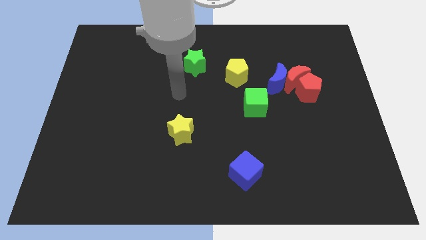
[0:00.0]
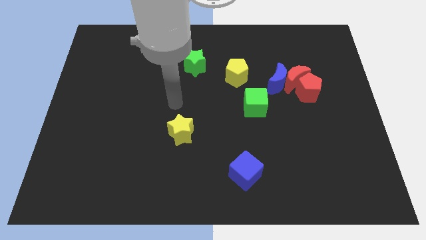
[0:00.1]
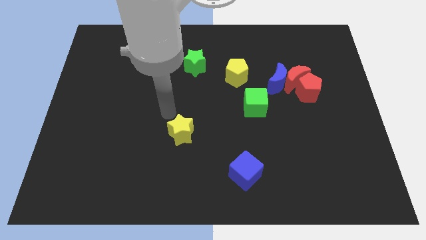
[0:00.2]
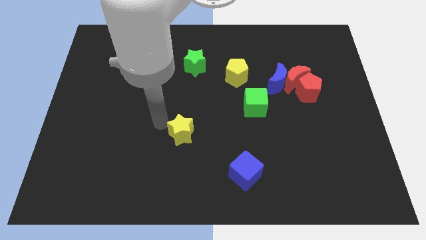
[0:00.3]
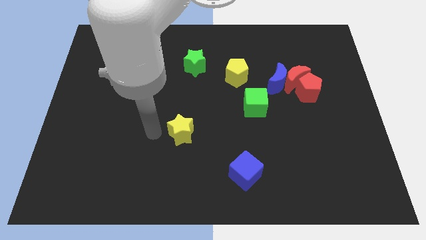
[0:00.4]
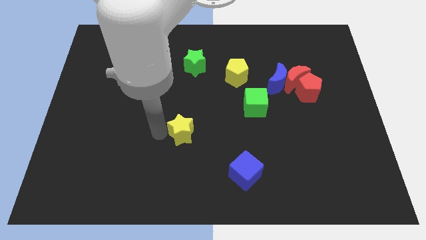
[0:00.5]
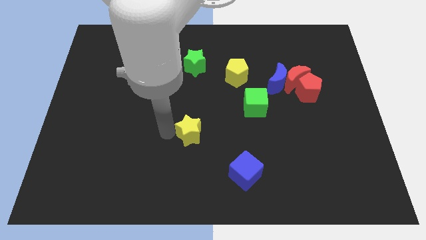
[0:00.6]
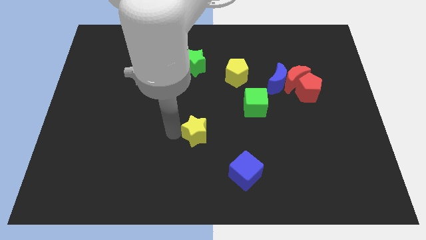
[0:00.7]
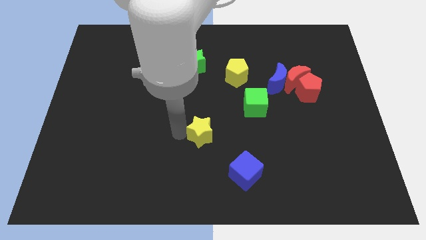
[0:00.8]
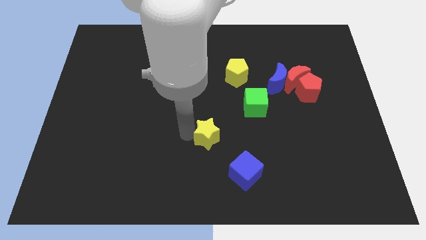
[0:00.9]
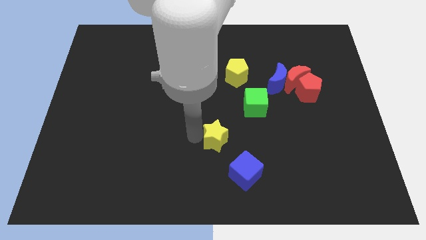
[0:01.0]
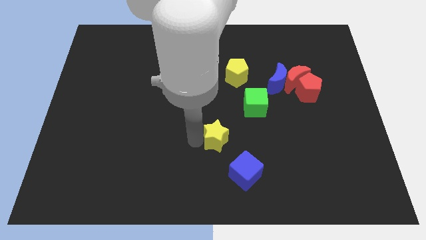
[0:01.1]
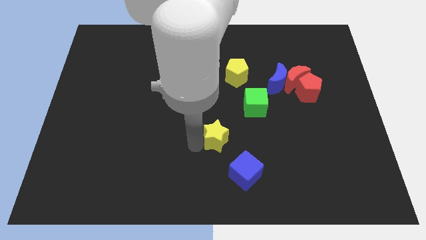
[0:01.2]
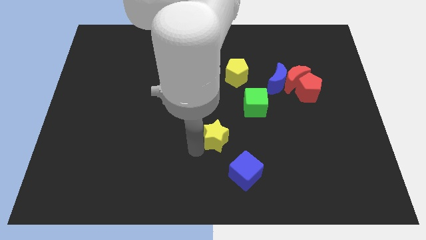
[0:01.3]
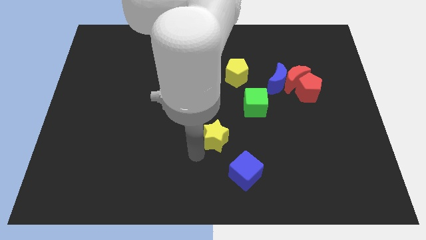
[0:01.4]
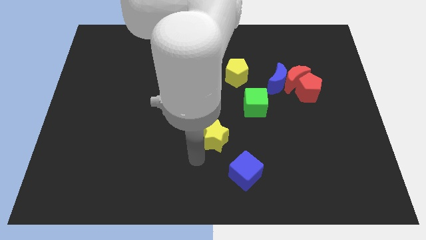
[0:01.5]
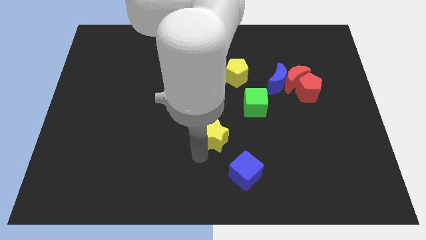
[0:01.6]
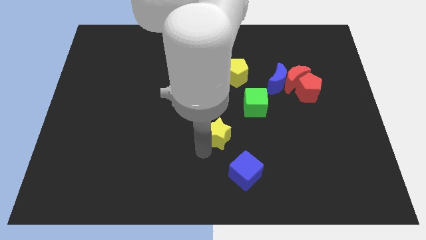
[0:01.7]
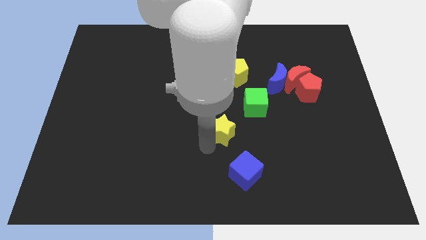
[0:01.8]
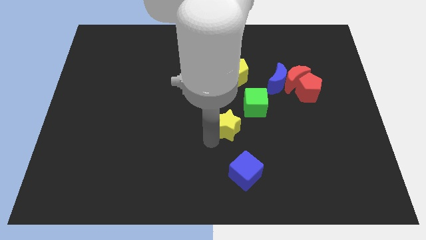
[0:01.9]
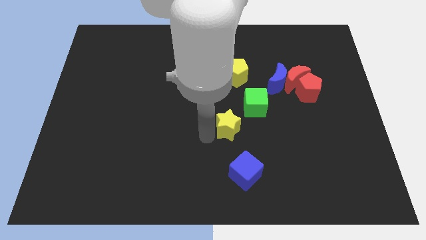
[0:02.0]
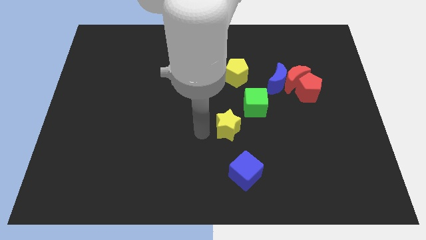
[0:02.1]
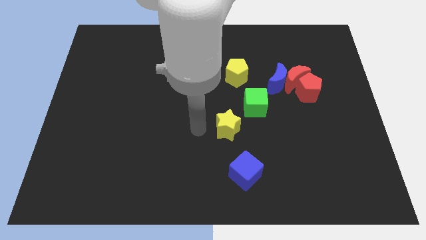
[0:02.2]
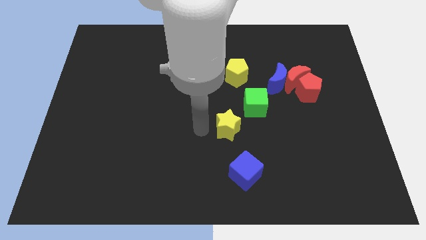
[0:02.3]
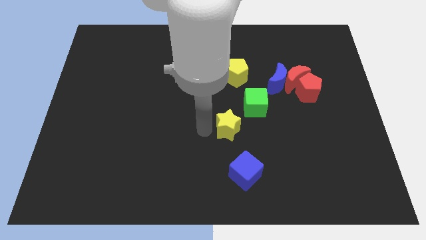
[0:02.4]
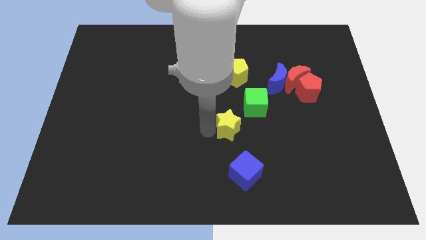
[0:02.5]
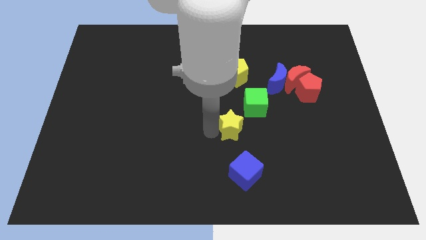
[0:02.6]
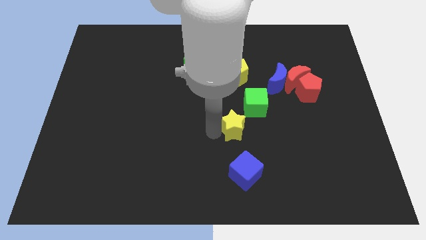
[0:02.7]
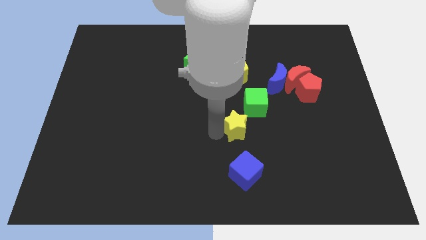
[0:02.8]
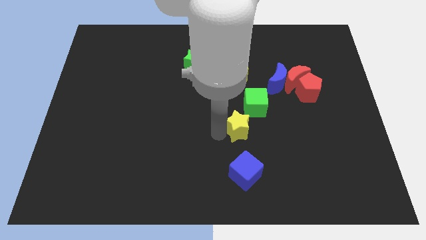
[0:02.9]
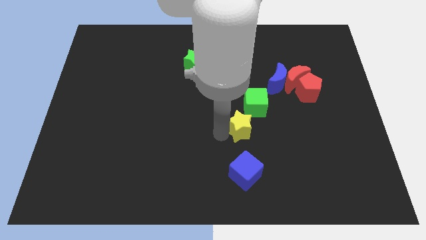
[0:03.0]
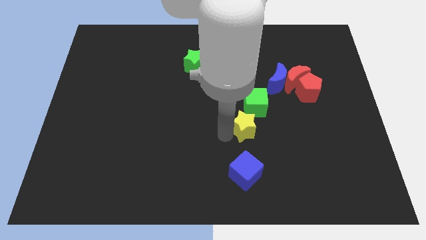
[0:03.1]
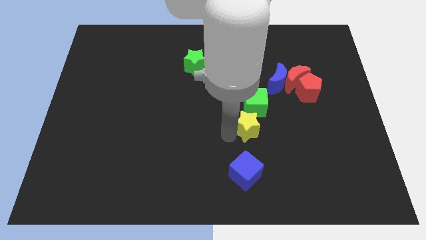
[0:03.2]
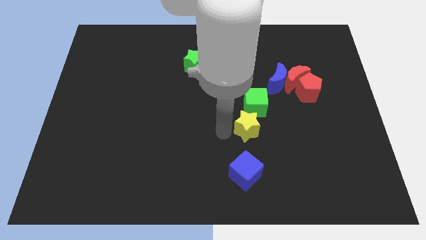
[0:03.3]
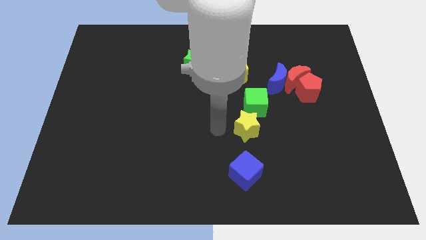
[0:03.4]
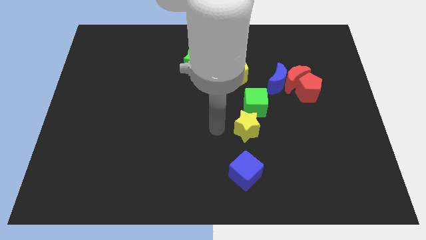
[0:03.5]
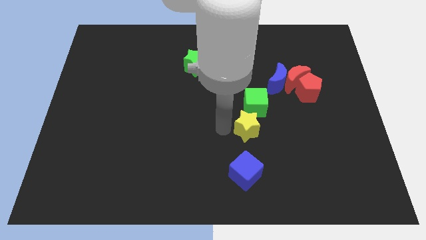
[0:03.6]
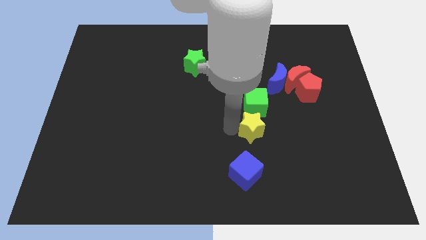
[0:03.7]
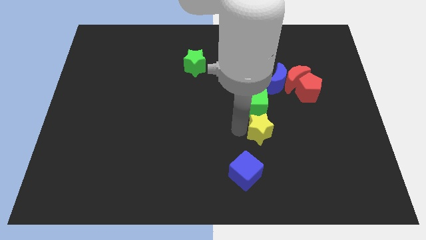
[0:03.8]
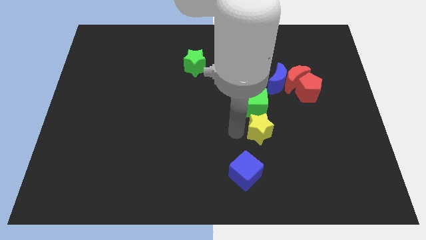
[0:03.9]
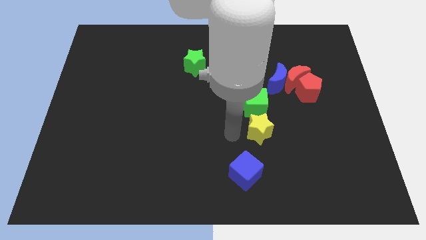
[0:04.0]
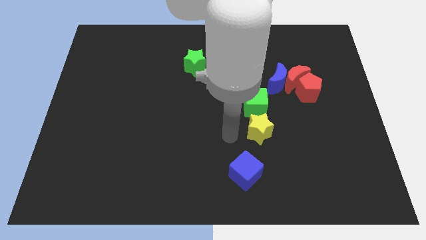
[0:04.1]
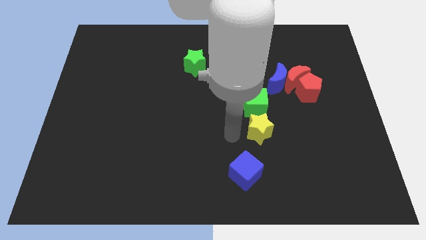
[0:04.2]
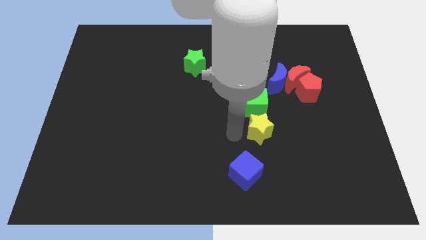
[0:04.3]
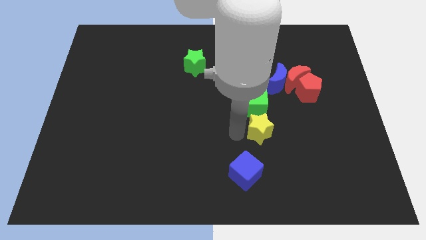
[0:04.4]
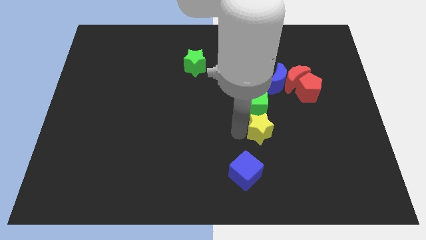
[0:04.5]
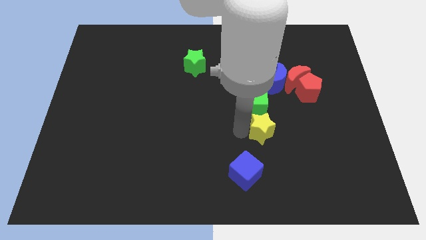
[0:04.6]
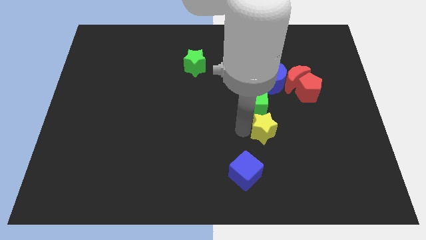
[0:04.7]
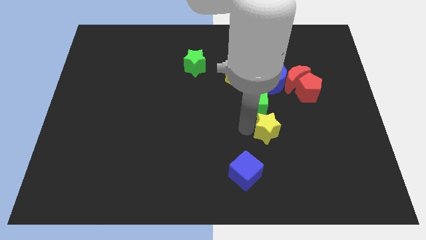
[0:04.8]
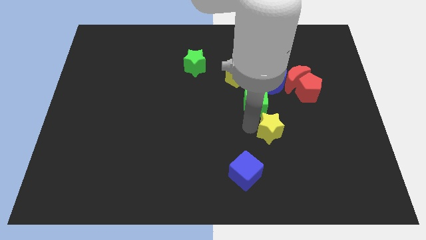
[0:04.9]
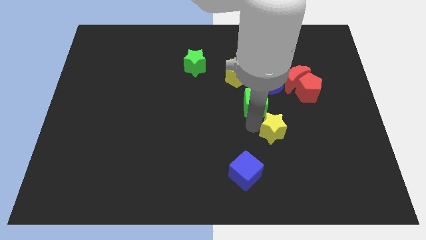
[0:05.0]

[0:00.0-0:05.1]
slide the yellow star to the right

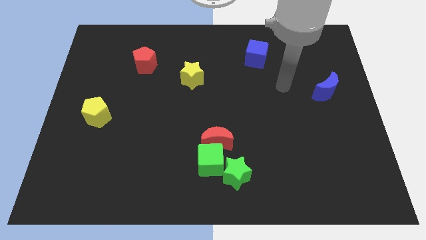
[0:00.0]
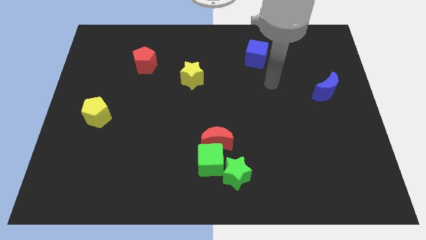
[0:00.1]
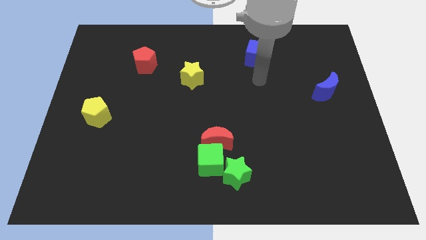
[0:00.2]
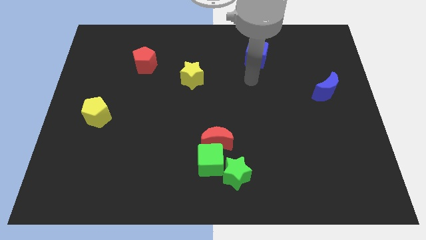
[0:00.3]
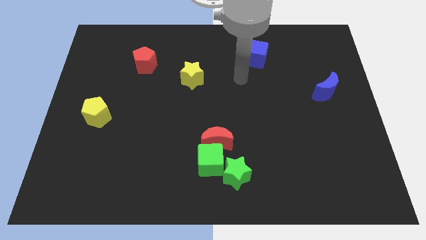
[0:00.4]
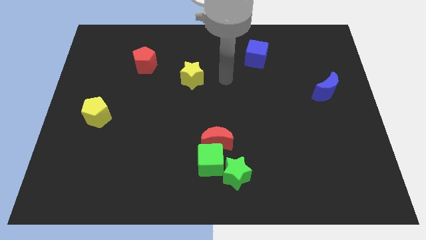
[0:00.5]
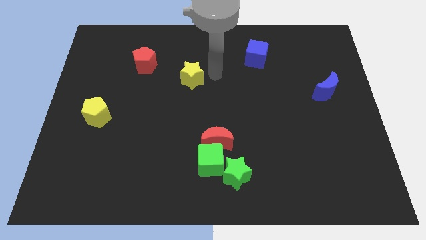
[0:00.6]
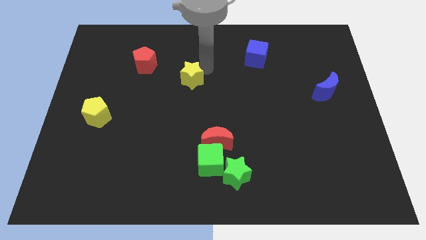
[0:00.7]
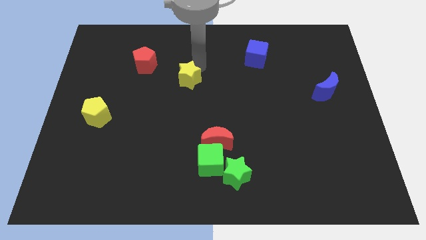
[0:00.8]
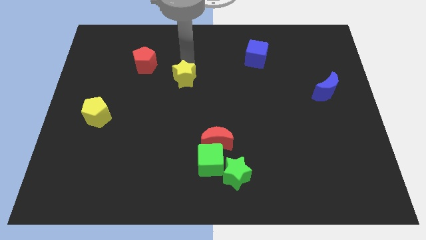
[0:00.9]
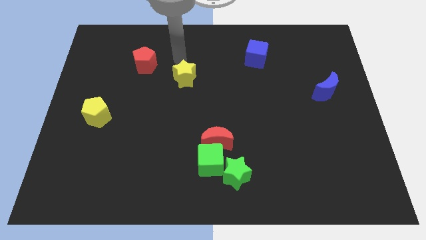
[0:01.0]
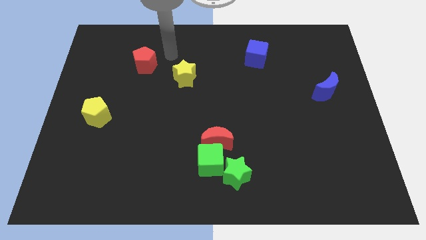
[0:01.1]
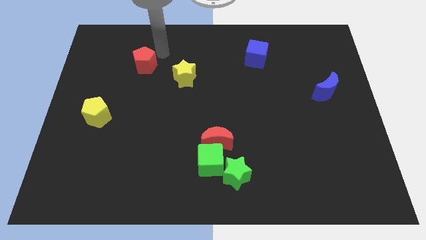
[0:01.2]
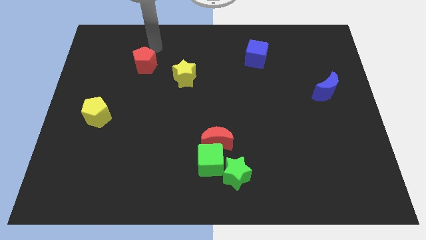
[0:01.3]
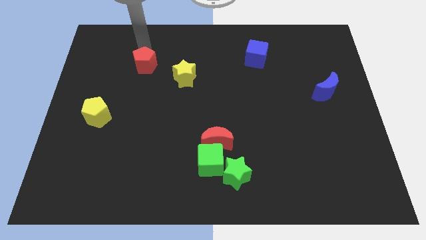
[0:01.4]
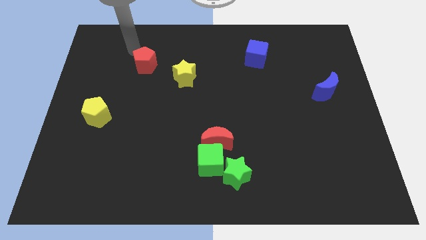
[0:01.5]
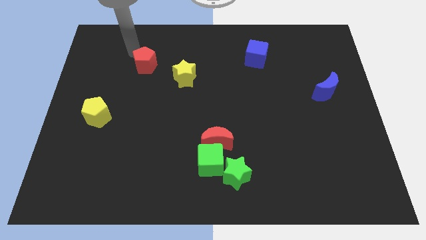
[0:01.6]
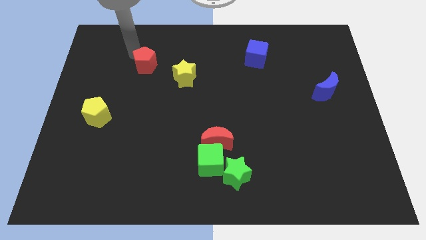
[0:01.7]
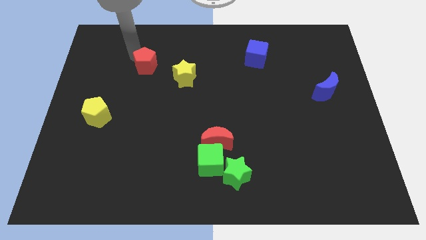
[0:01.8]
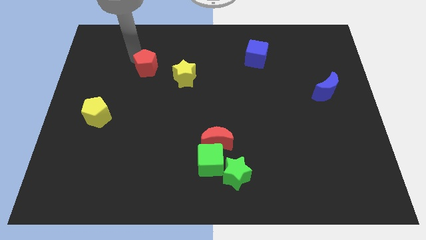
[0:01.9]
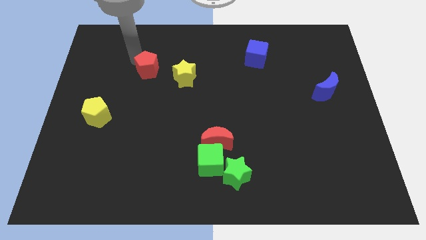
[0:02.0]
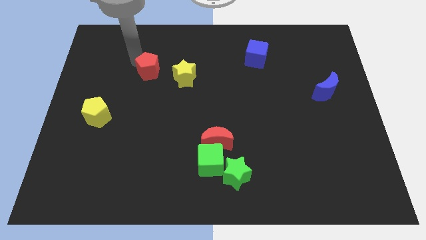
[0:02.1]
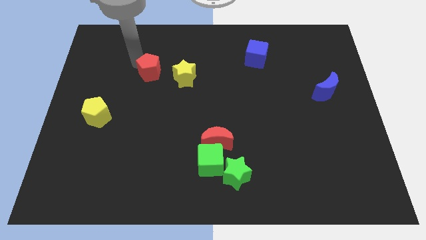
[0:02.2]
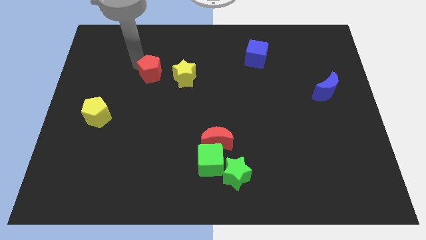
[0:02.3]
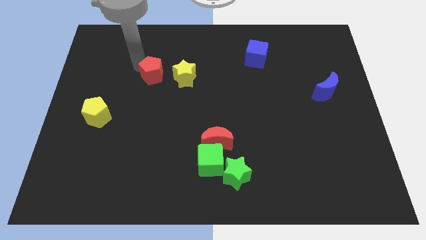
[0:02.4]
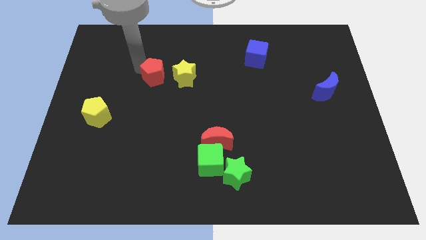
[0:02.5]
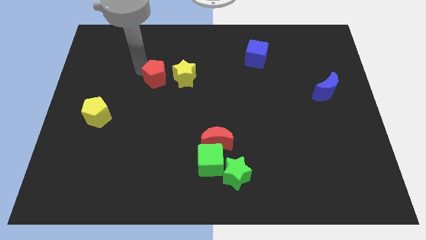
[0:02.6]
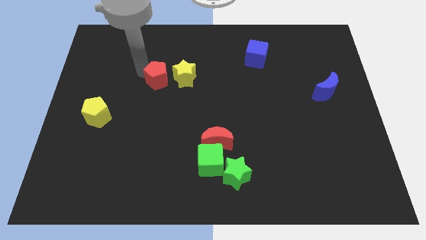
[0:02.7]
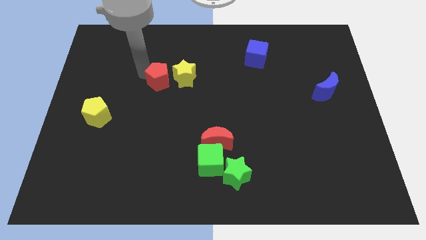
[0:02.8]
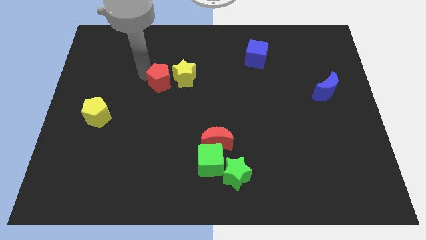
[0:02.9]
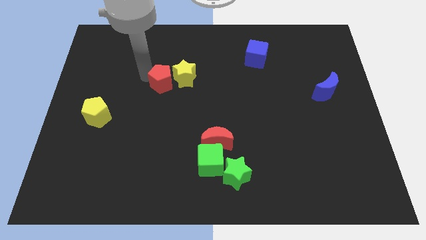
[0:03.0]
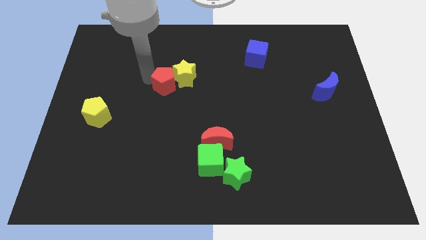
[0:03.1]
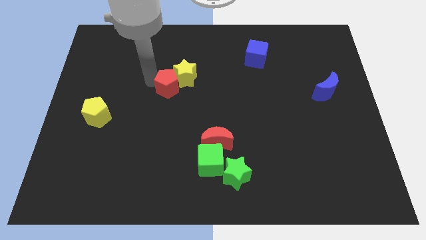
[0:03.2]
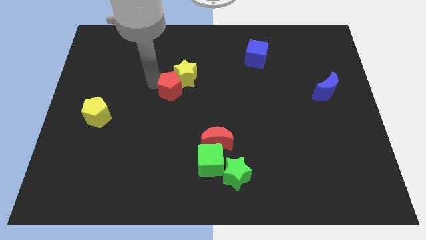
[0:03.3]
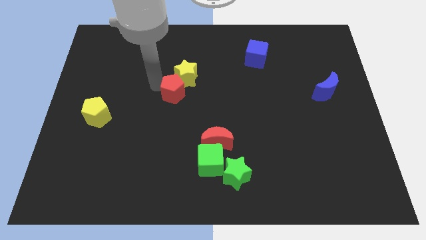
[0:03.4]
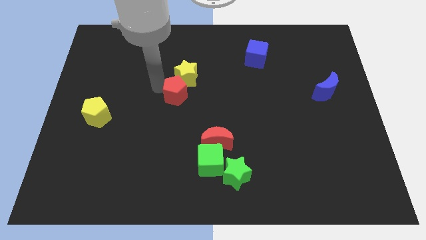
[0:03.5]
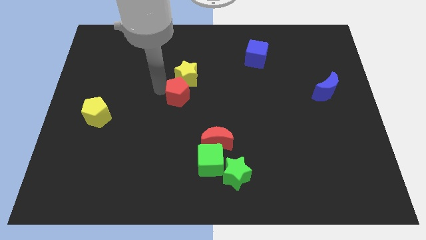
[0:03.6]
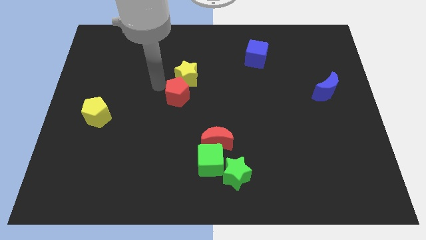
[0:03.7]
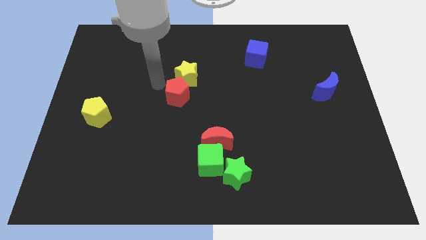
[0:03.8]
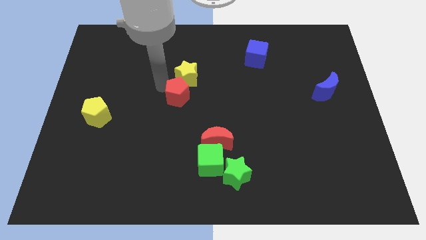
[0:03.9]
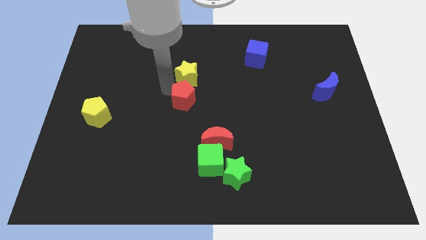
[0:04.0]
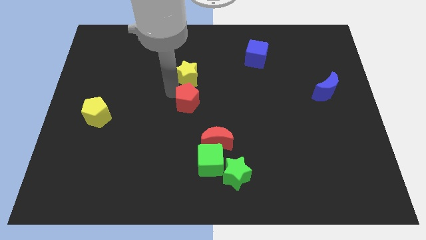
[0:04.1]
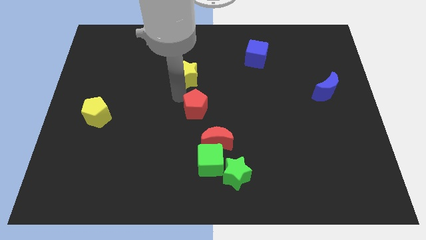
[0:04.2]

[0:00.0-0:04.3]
push the red pentagon down and right
